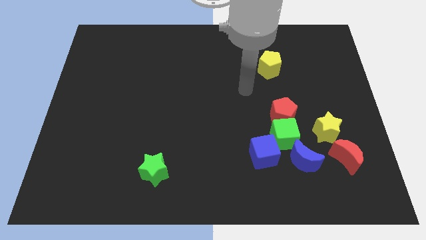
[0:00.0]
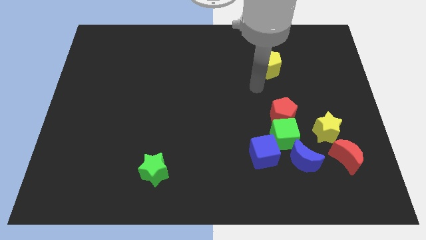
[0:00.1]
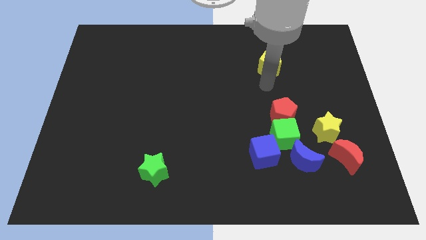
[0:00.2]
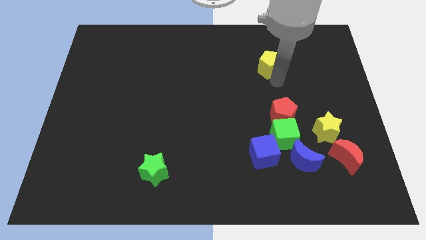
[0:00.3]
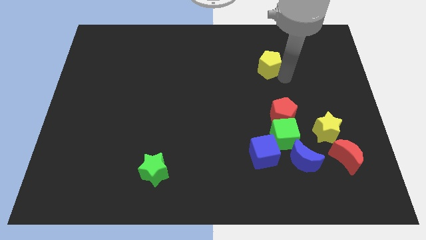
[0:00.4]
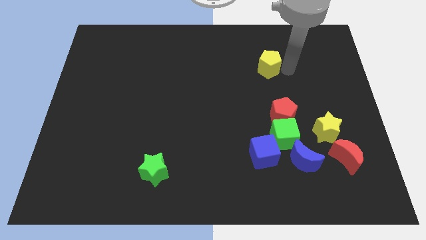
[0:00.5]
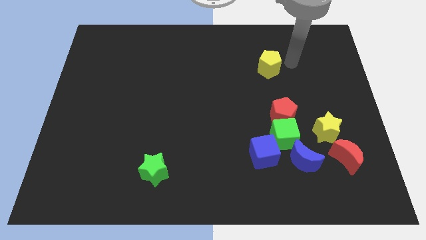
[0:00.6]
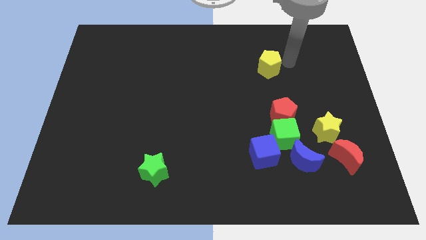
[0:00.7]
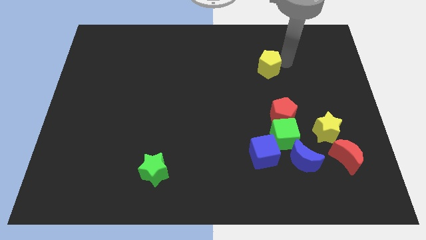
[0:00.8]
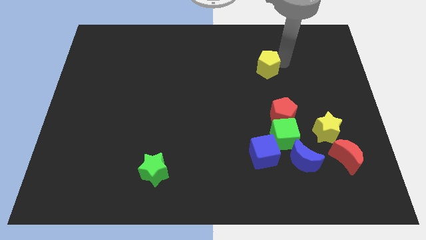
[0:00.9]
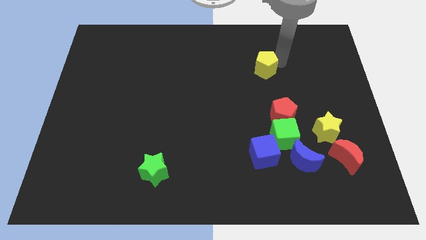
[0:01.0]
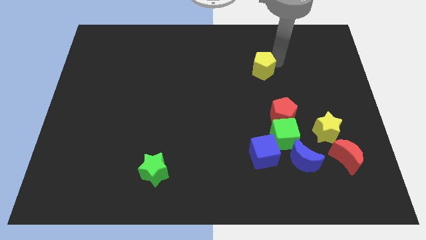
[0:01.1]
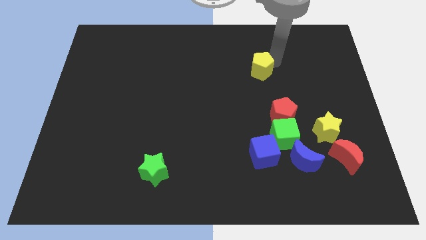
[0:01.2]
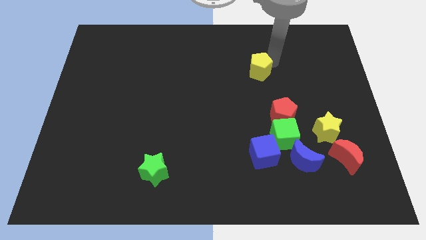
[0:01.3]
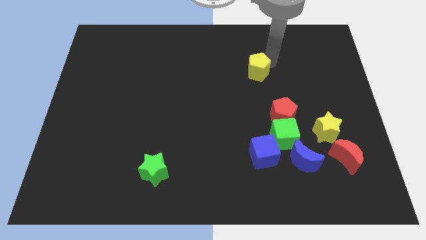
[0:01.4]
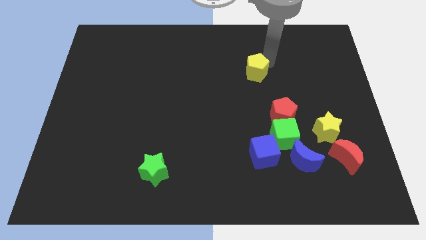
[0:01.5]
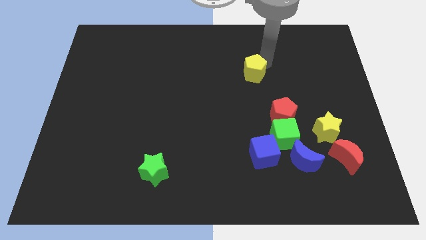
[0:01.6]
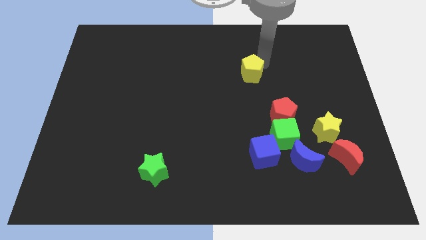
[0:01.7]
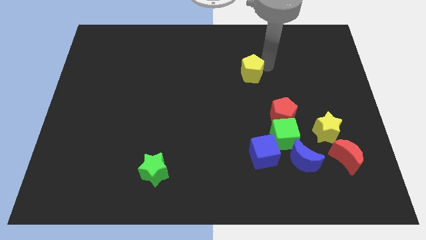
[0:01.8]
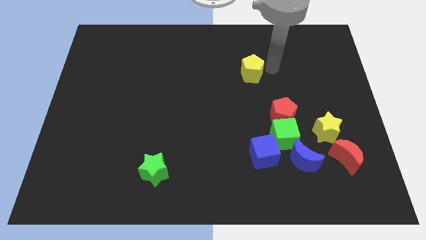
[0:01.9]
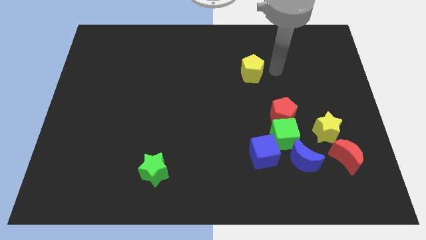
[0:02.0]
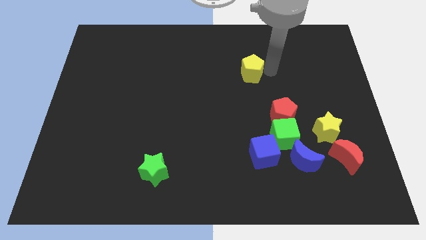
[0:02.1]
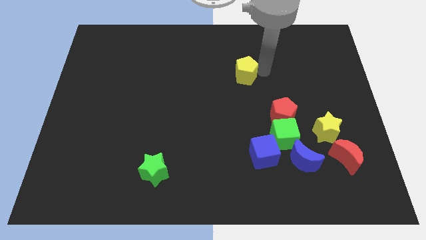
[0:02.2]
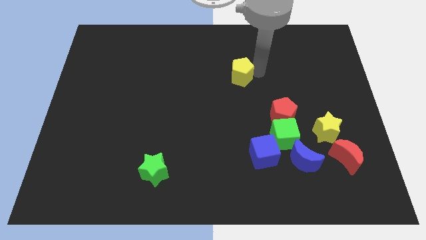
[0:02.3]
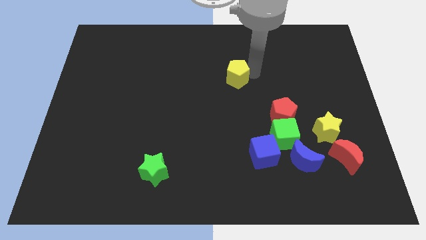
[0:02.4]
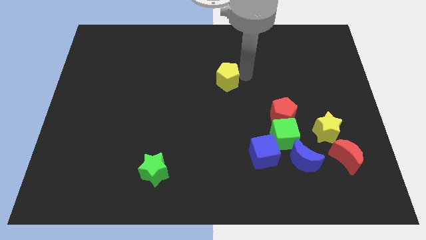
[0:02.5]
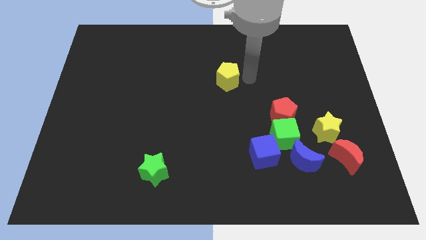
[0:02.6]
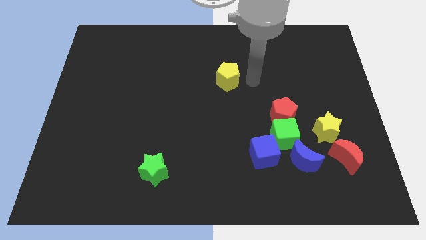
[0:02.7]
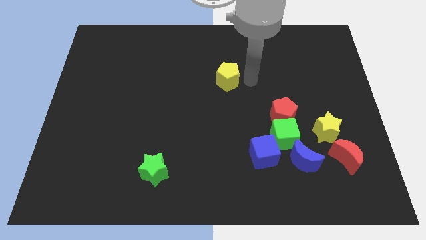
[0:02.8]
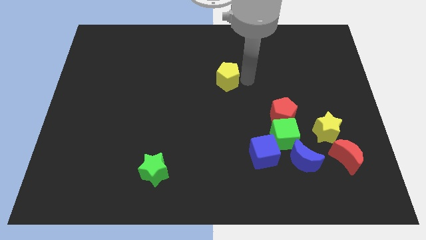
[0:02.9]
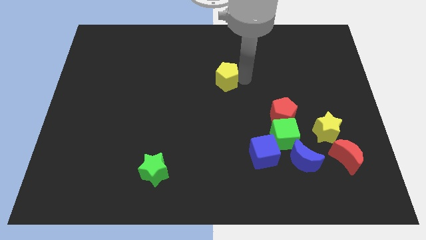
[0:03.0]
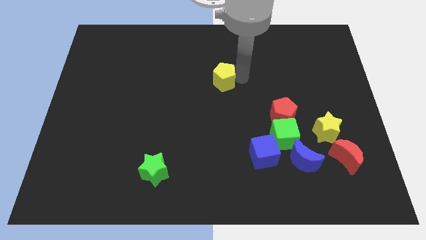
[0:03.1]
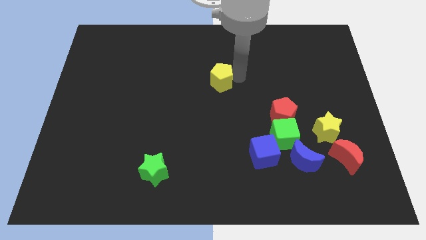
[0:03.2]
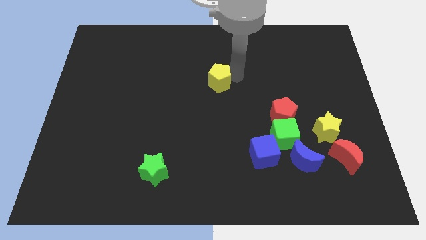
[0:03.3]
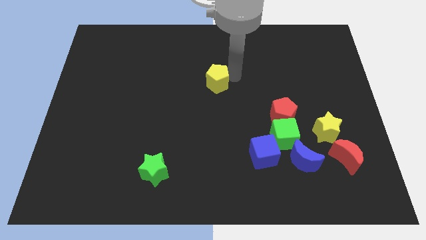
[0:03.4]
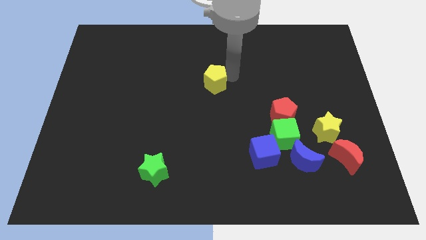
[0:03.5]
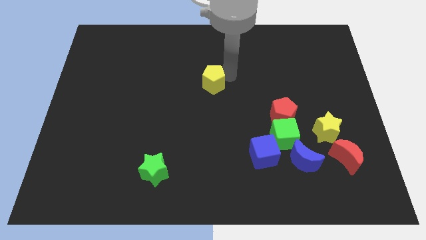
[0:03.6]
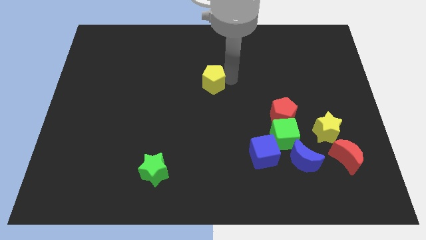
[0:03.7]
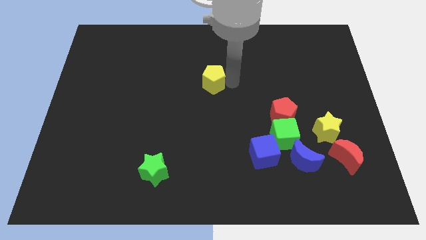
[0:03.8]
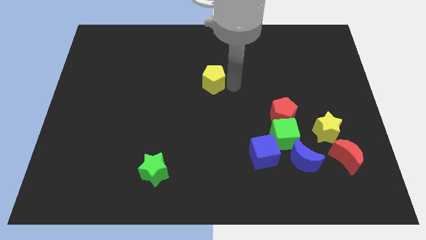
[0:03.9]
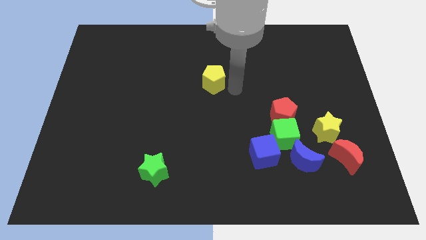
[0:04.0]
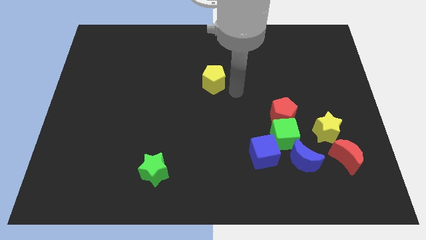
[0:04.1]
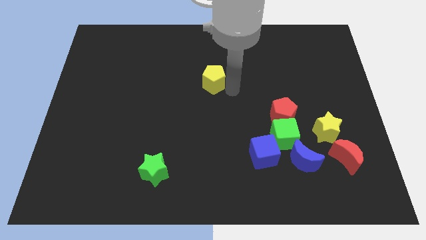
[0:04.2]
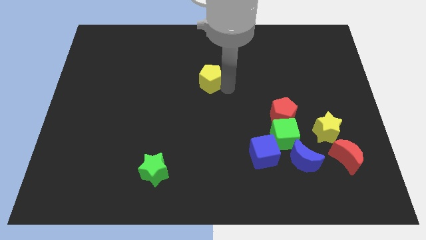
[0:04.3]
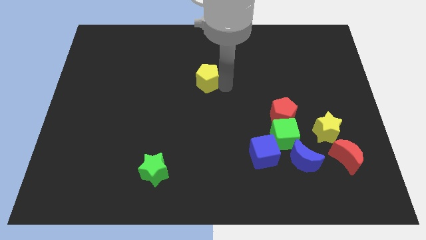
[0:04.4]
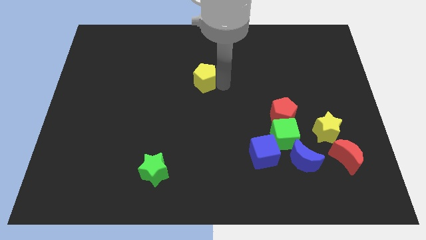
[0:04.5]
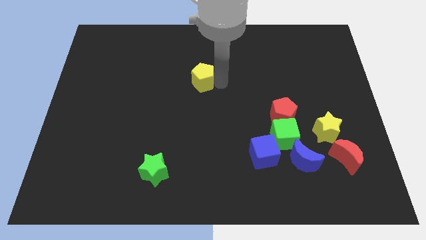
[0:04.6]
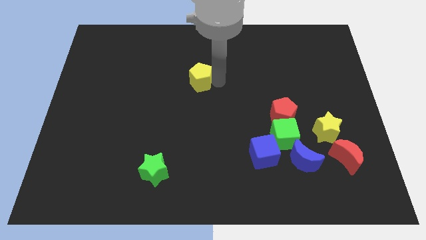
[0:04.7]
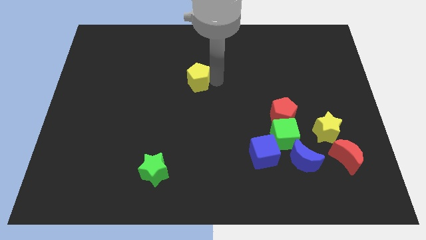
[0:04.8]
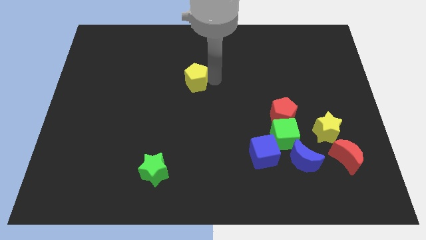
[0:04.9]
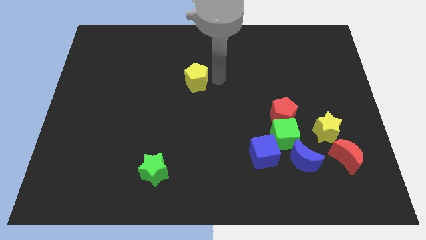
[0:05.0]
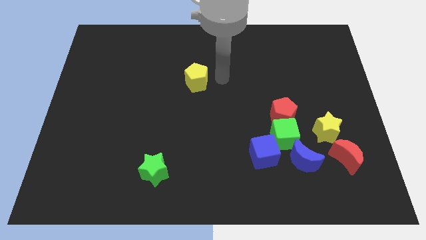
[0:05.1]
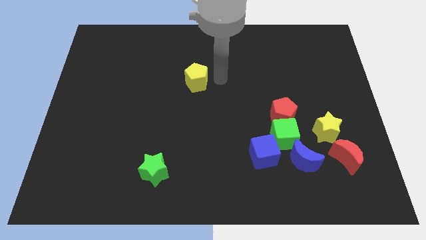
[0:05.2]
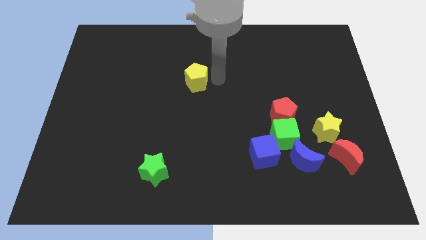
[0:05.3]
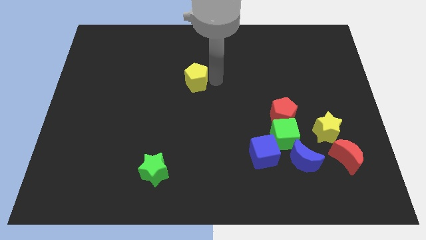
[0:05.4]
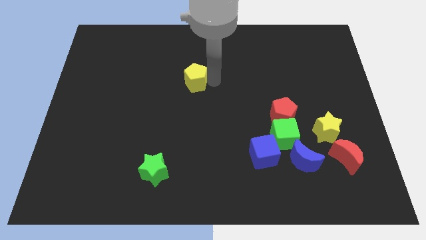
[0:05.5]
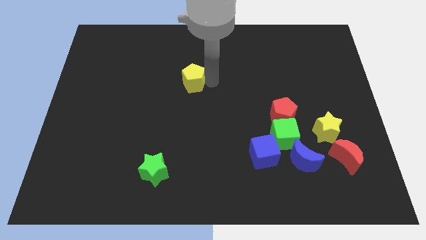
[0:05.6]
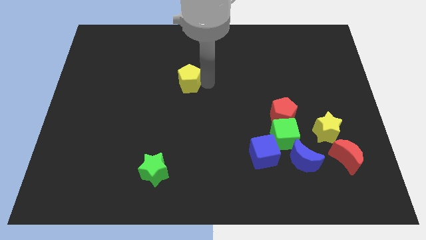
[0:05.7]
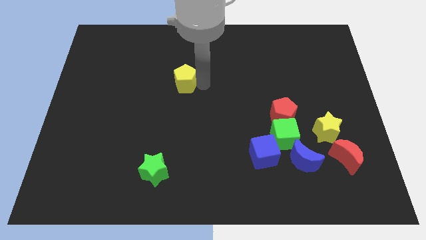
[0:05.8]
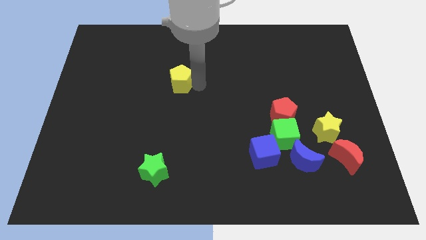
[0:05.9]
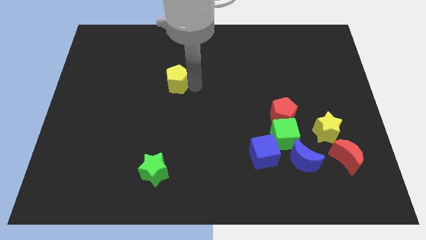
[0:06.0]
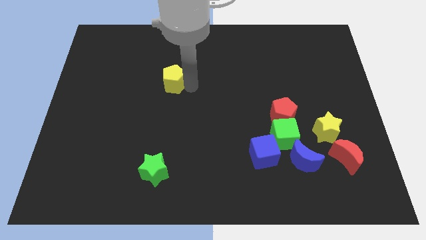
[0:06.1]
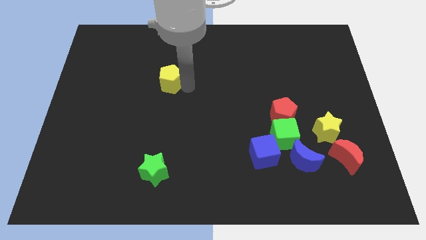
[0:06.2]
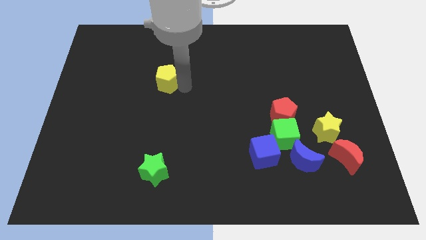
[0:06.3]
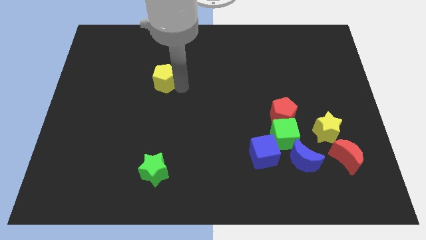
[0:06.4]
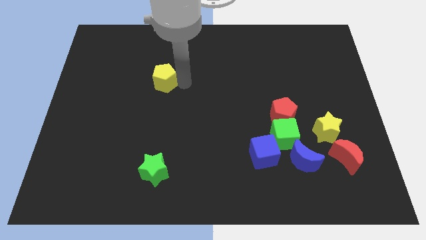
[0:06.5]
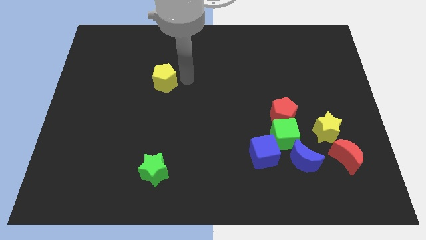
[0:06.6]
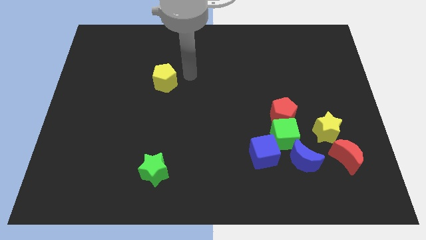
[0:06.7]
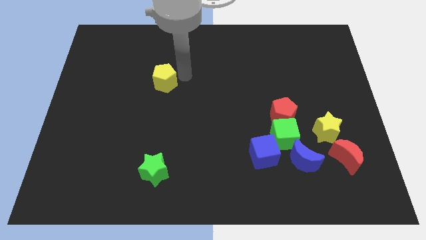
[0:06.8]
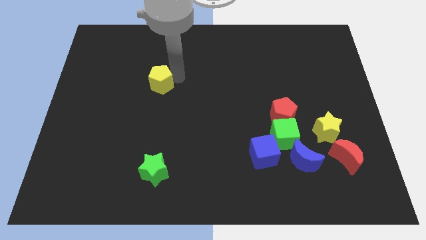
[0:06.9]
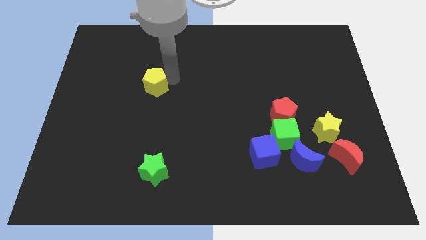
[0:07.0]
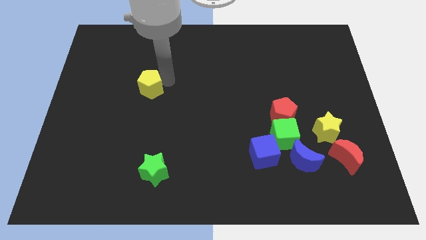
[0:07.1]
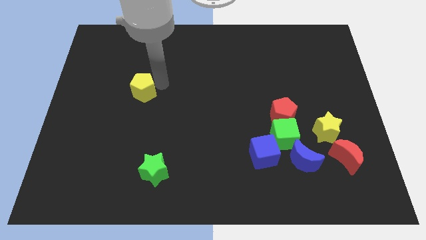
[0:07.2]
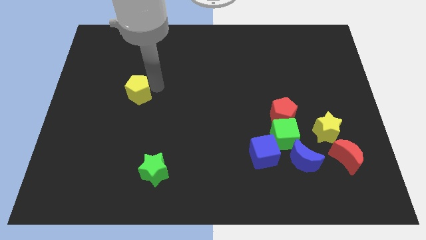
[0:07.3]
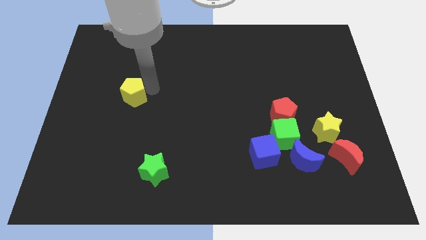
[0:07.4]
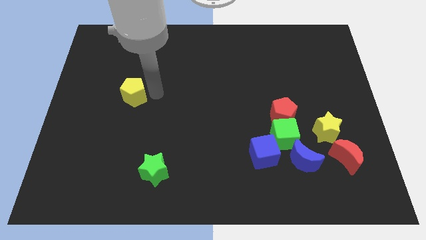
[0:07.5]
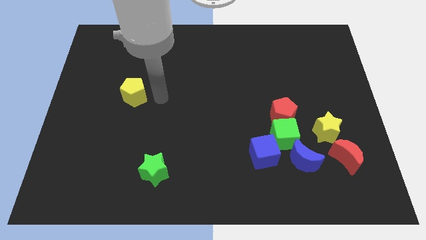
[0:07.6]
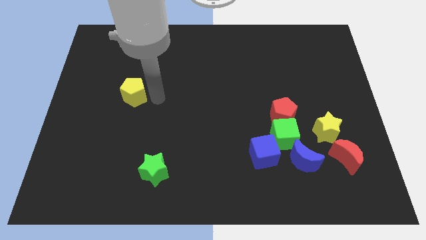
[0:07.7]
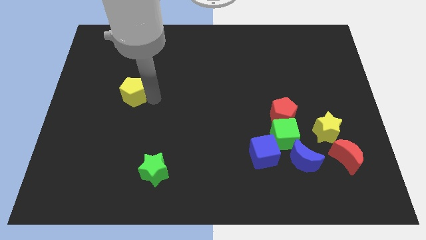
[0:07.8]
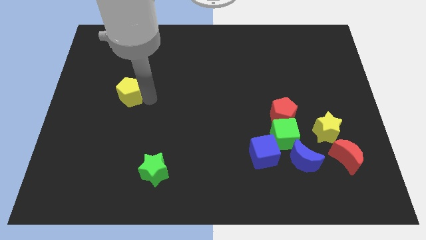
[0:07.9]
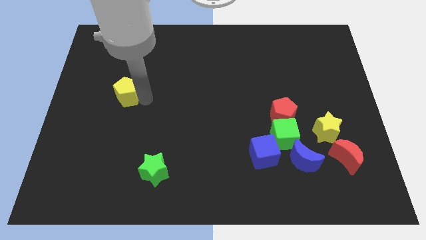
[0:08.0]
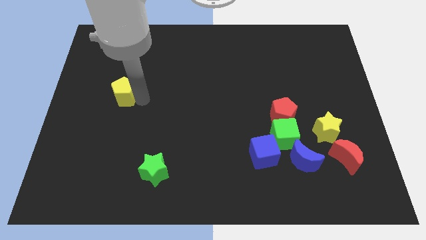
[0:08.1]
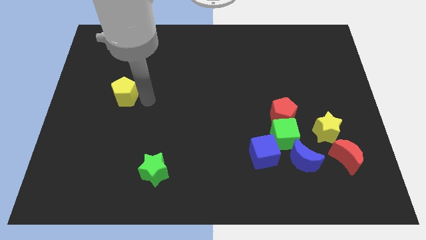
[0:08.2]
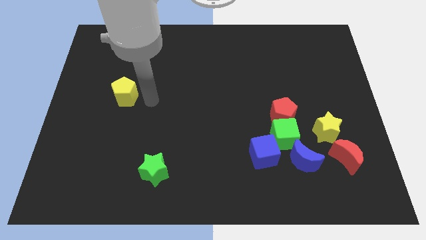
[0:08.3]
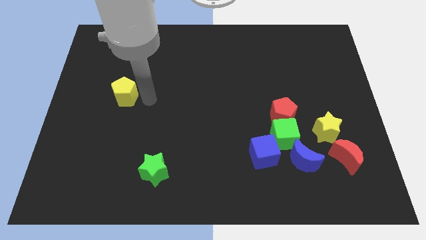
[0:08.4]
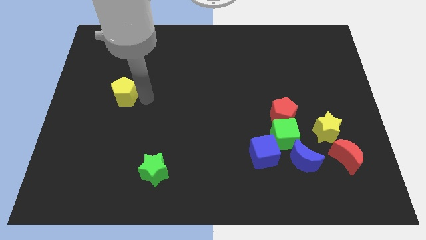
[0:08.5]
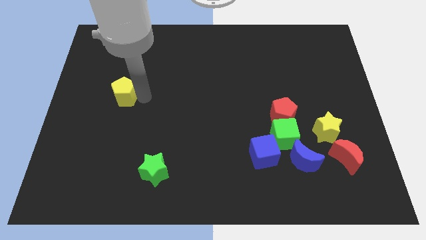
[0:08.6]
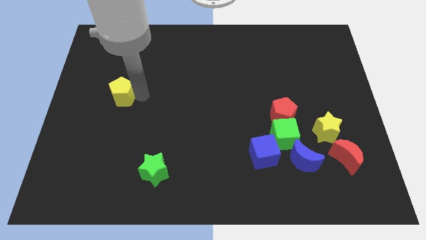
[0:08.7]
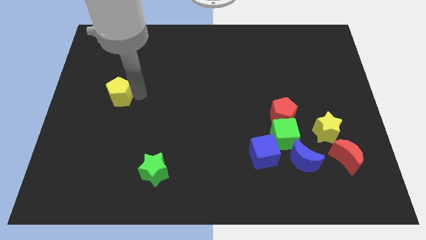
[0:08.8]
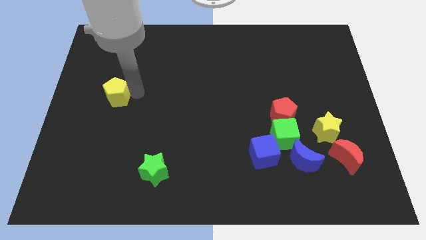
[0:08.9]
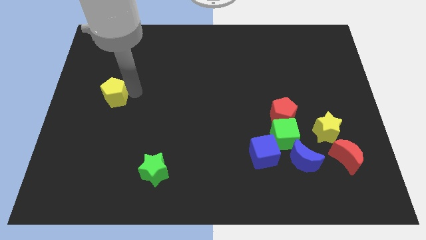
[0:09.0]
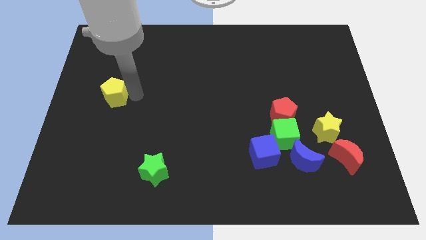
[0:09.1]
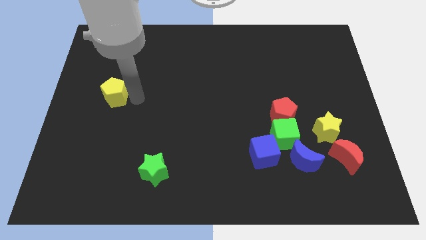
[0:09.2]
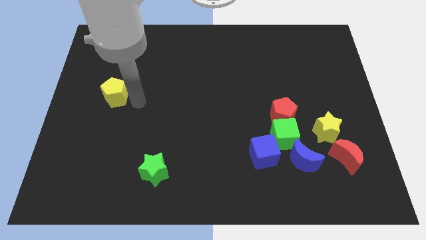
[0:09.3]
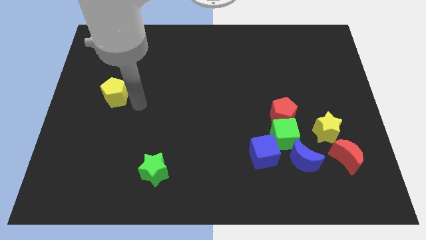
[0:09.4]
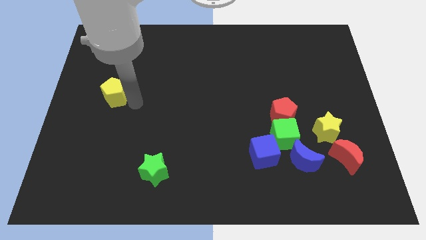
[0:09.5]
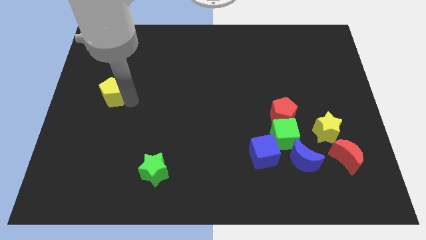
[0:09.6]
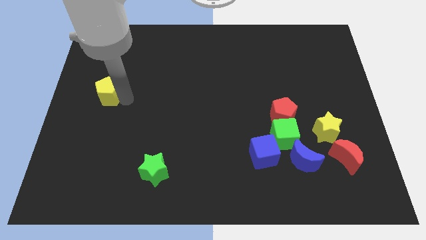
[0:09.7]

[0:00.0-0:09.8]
push the yellow pentagon to the left side
